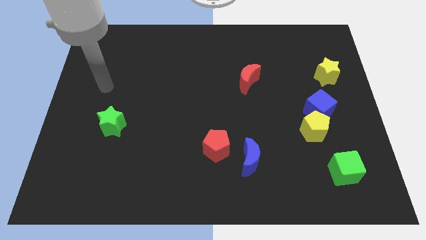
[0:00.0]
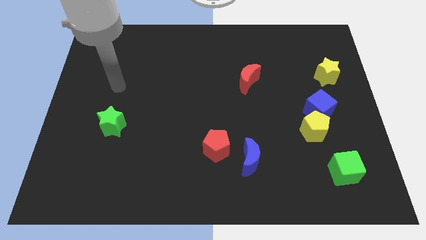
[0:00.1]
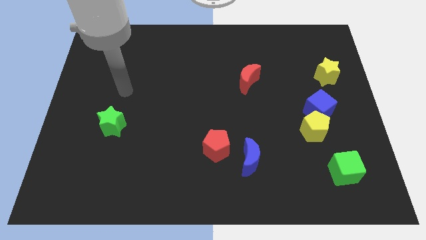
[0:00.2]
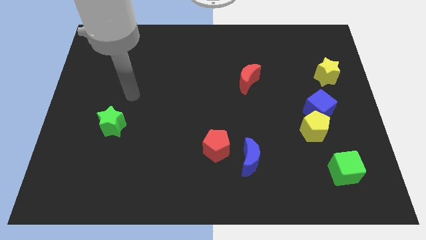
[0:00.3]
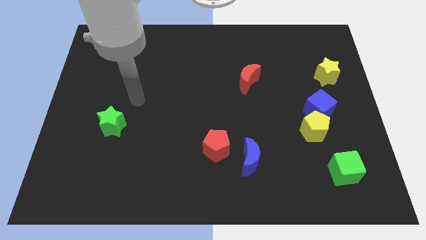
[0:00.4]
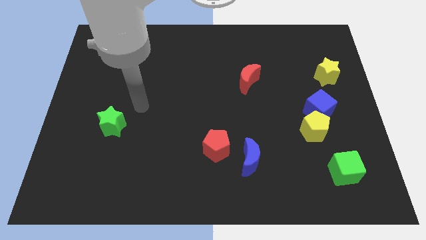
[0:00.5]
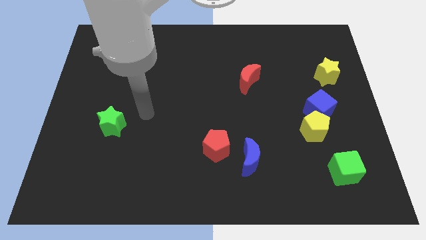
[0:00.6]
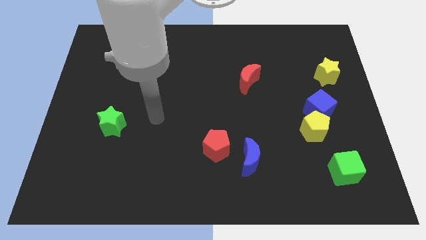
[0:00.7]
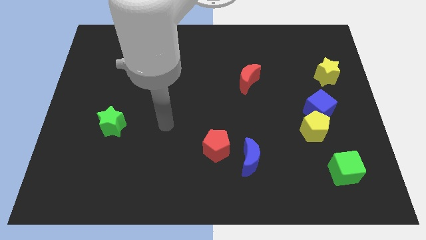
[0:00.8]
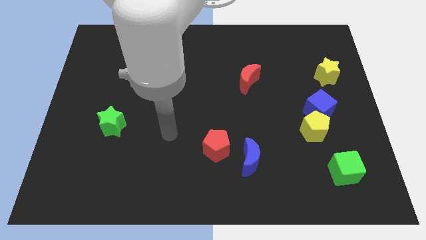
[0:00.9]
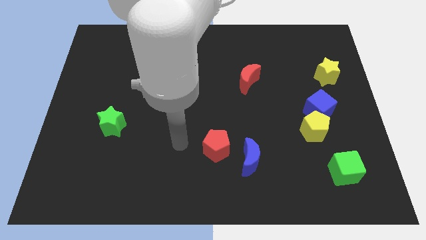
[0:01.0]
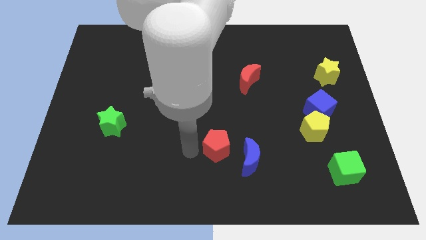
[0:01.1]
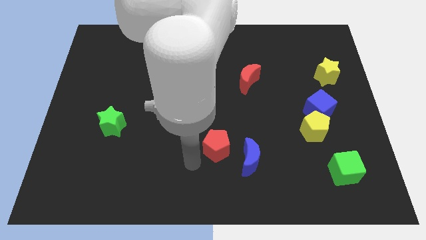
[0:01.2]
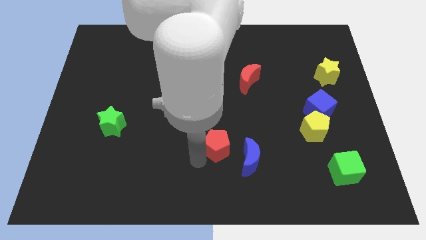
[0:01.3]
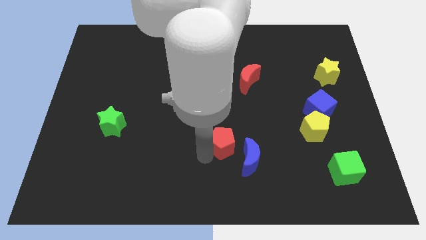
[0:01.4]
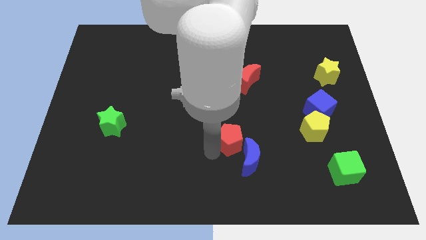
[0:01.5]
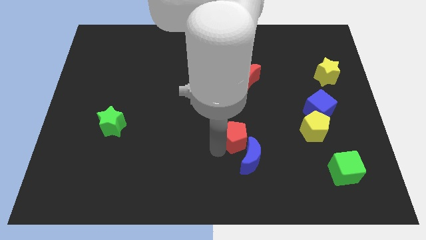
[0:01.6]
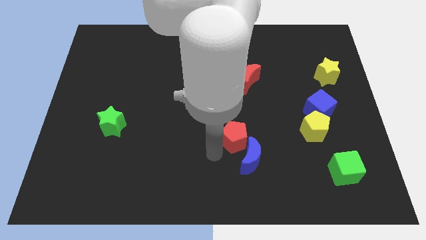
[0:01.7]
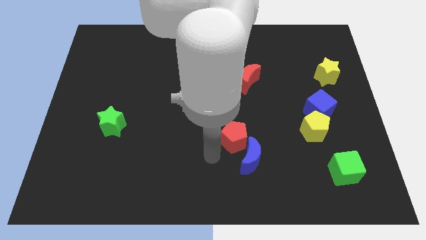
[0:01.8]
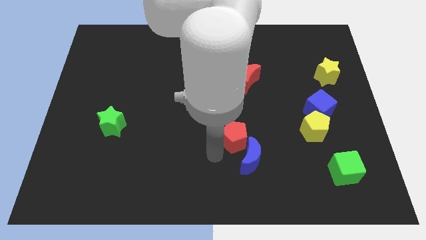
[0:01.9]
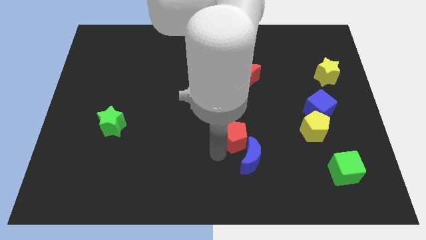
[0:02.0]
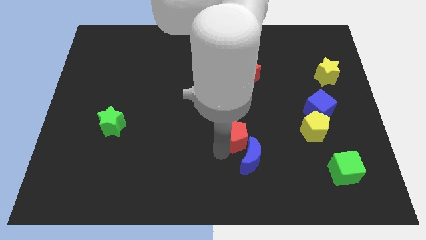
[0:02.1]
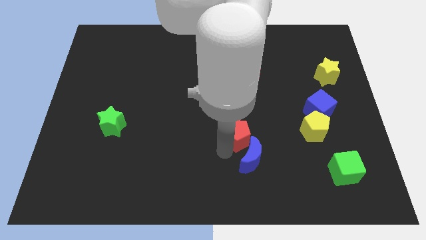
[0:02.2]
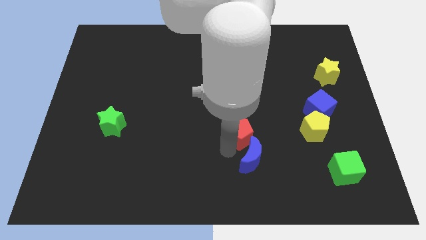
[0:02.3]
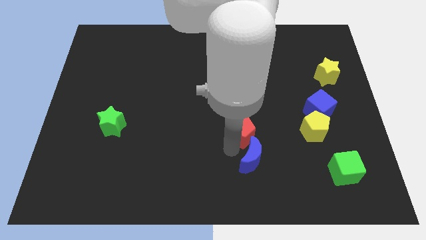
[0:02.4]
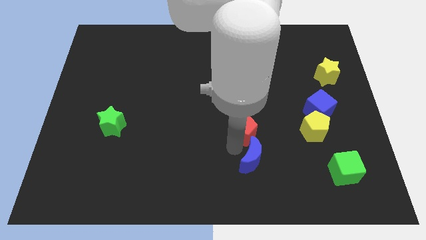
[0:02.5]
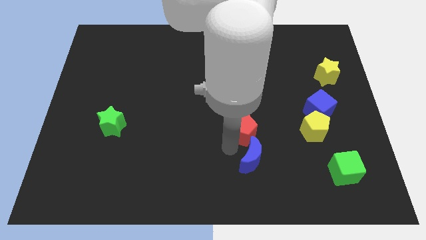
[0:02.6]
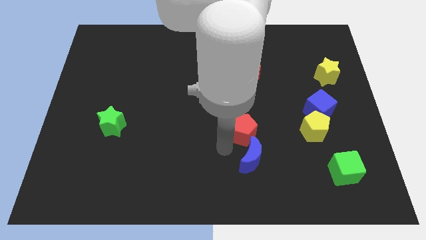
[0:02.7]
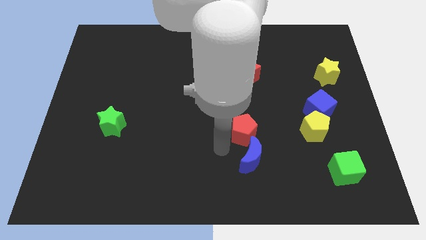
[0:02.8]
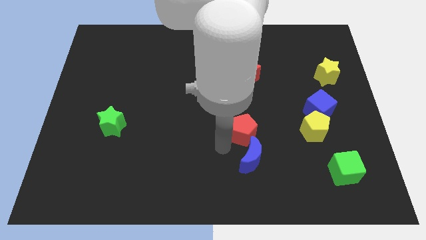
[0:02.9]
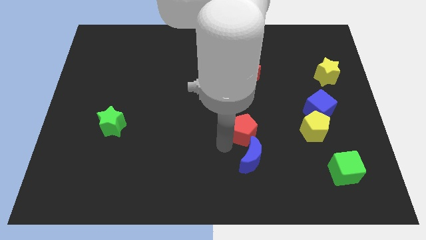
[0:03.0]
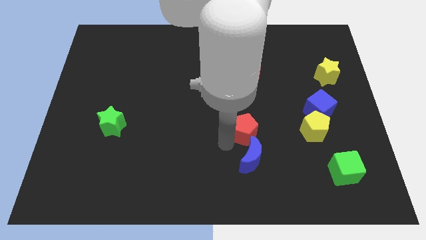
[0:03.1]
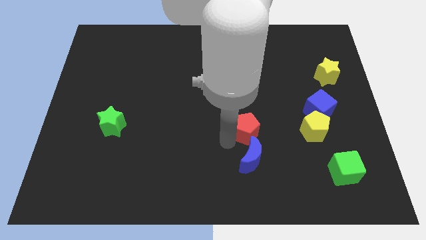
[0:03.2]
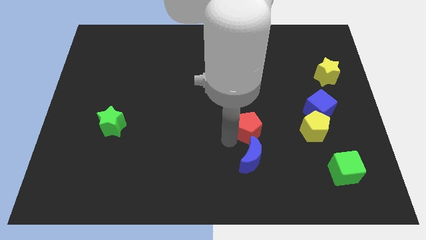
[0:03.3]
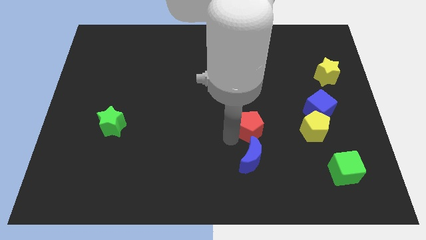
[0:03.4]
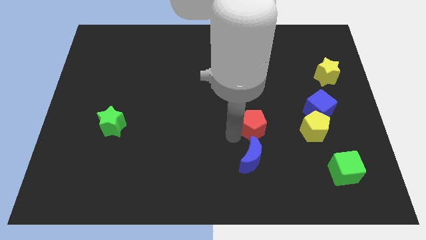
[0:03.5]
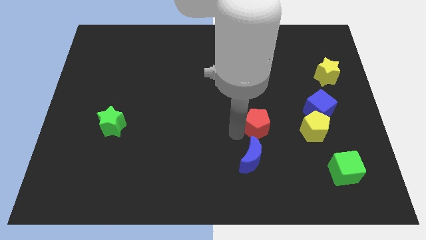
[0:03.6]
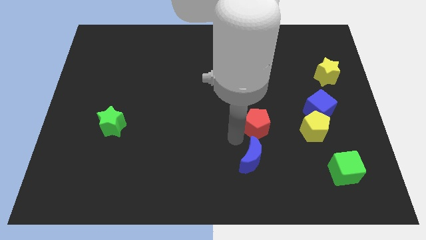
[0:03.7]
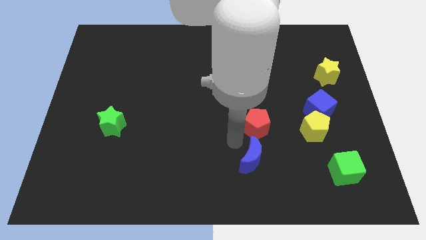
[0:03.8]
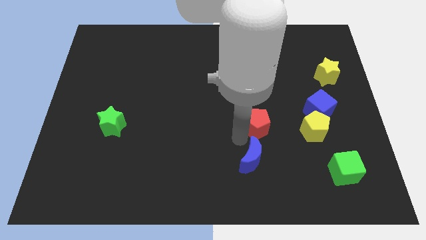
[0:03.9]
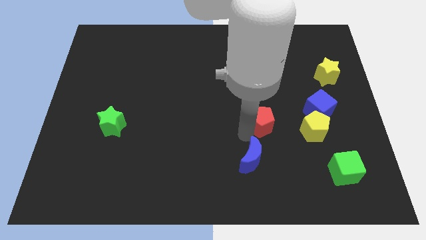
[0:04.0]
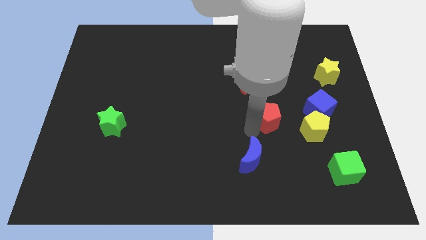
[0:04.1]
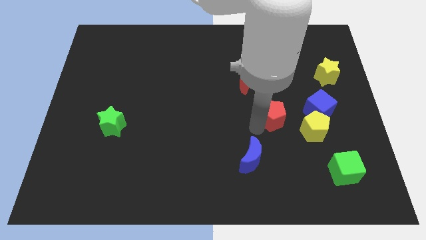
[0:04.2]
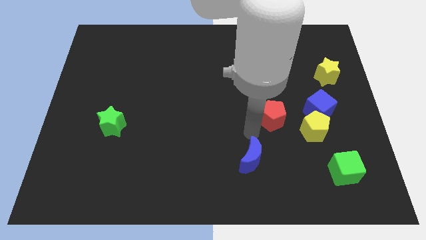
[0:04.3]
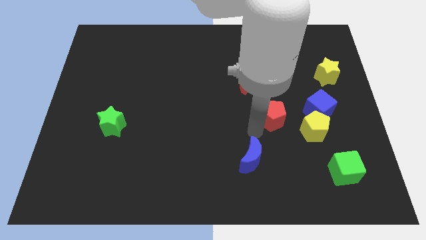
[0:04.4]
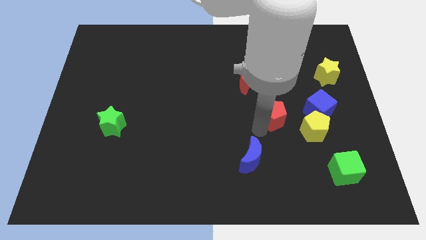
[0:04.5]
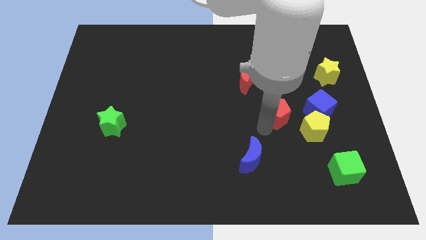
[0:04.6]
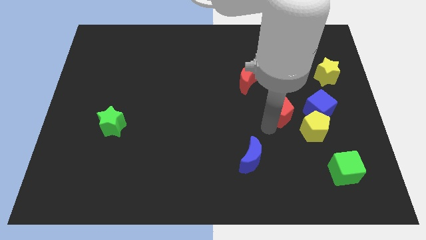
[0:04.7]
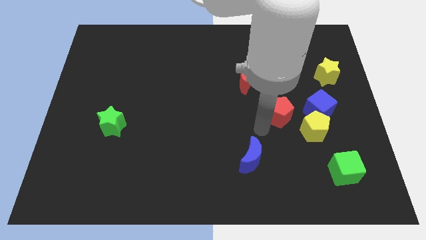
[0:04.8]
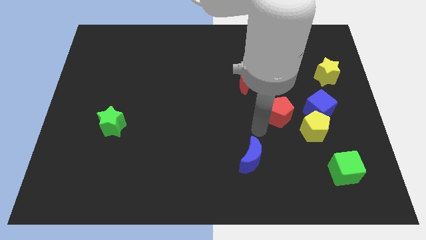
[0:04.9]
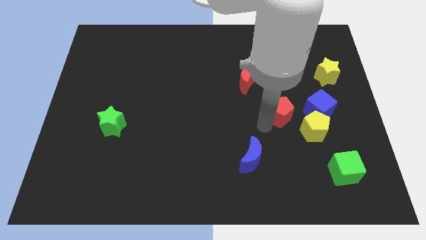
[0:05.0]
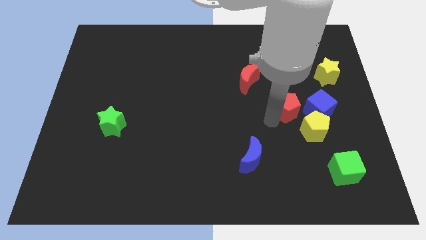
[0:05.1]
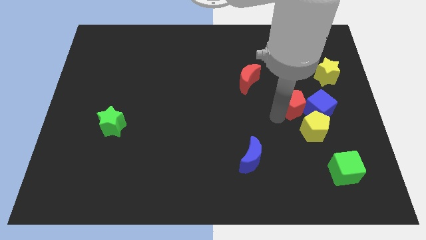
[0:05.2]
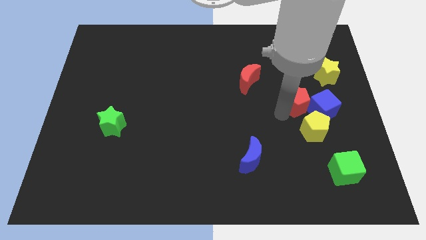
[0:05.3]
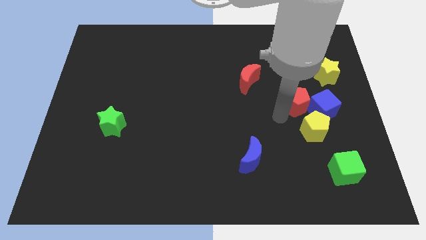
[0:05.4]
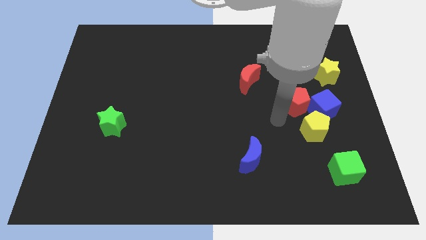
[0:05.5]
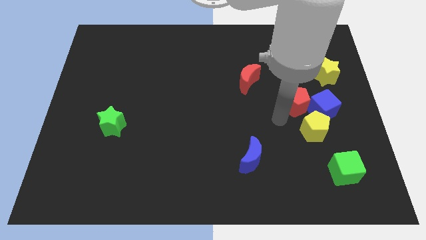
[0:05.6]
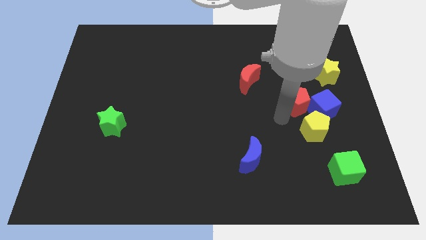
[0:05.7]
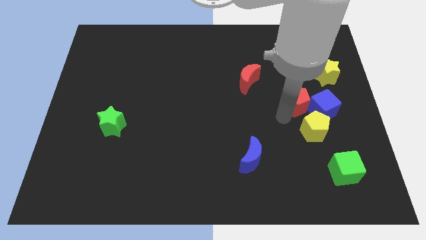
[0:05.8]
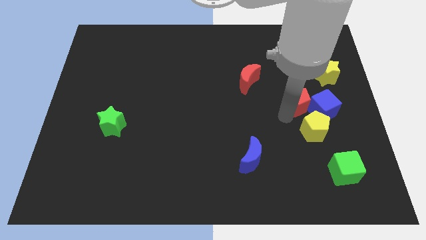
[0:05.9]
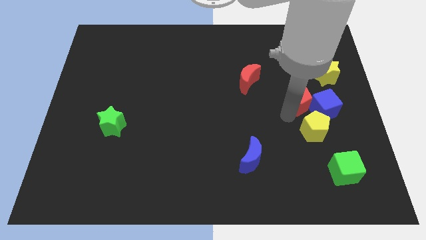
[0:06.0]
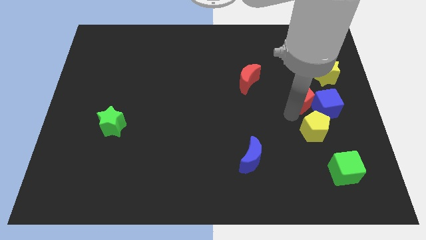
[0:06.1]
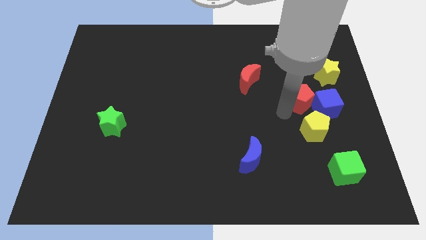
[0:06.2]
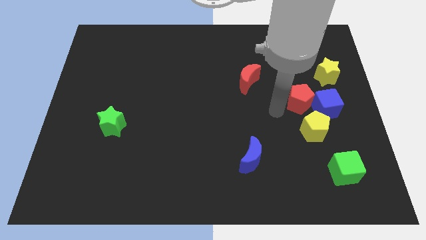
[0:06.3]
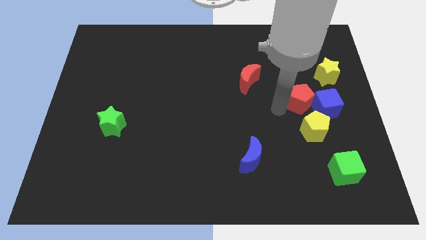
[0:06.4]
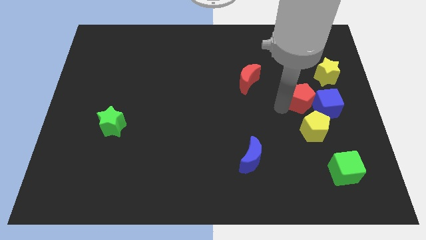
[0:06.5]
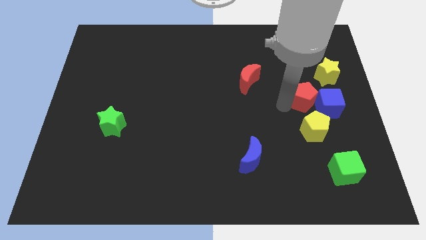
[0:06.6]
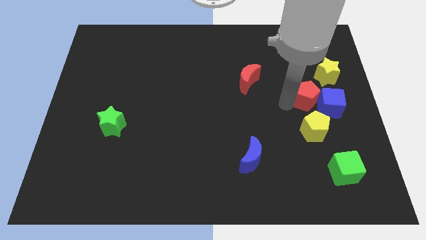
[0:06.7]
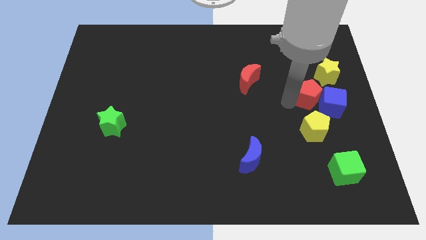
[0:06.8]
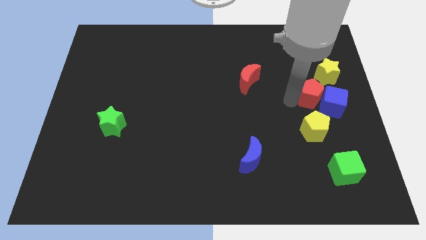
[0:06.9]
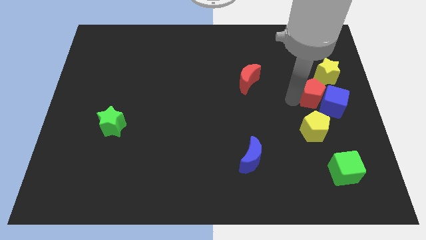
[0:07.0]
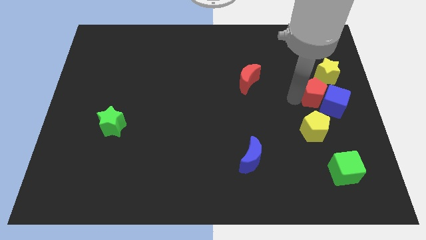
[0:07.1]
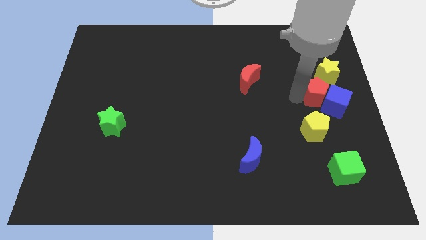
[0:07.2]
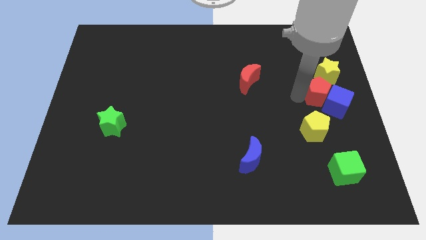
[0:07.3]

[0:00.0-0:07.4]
slide the red pentagon to the right side of the board
